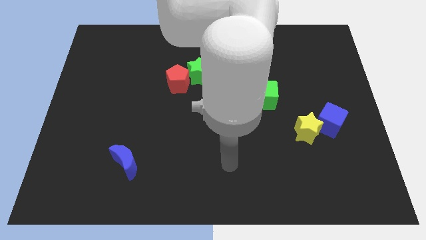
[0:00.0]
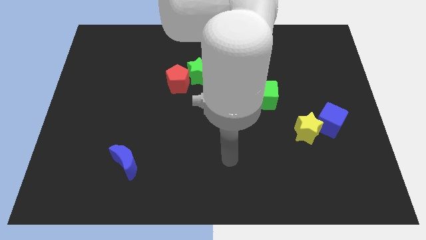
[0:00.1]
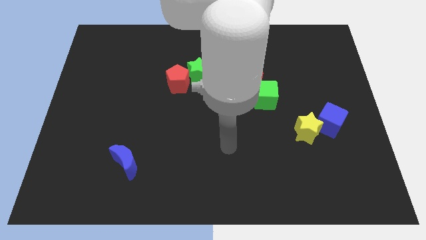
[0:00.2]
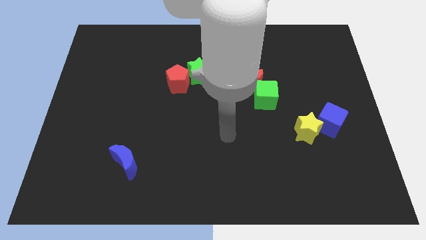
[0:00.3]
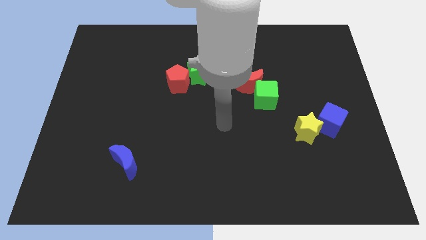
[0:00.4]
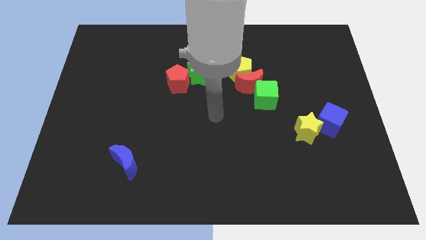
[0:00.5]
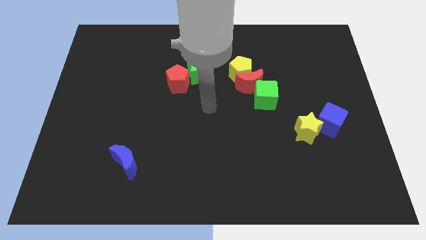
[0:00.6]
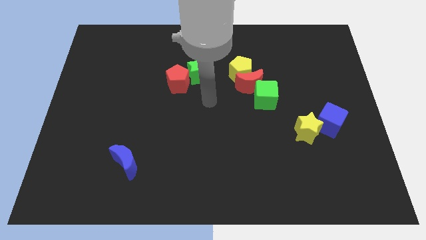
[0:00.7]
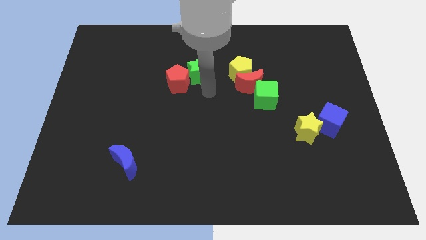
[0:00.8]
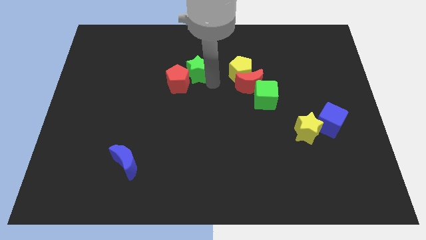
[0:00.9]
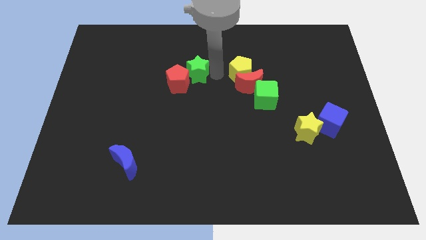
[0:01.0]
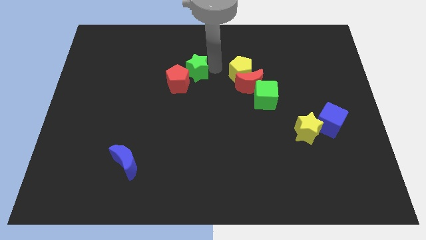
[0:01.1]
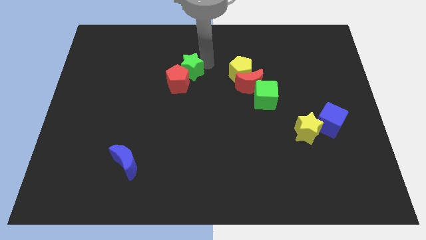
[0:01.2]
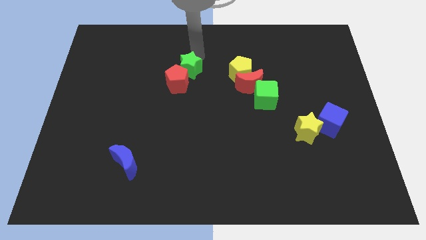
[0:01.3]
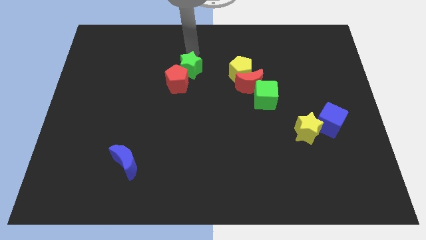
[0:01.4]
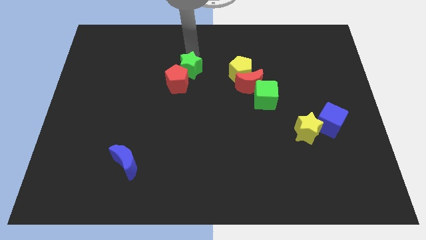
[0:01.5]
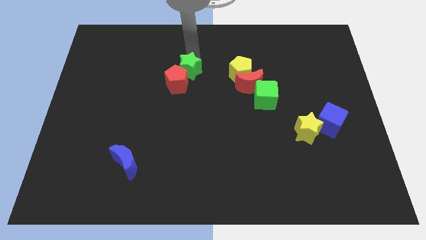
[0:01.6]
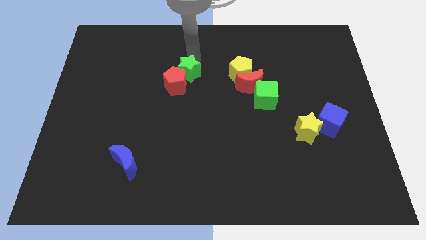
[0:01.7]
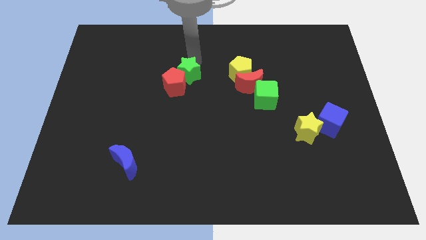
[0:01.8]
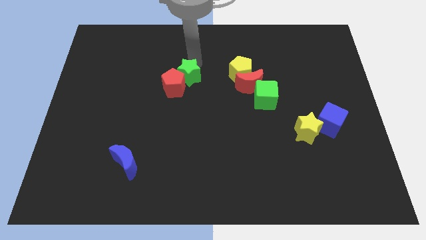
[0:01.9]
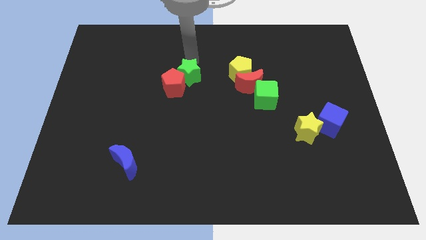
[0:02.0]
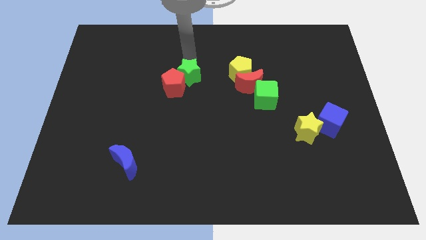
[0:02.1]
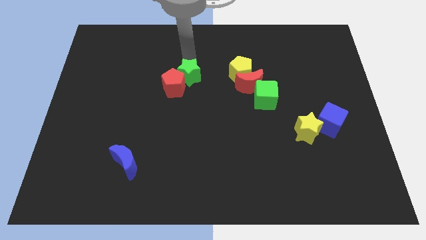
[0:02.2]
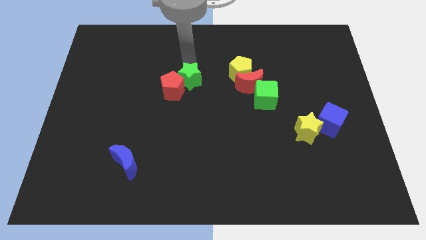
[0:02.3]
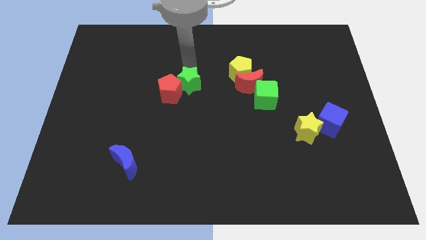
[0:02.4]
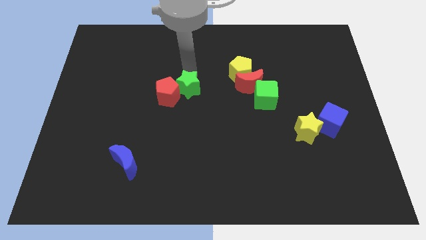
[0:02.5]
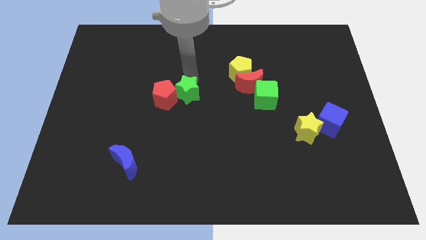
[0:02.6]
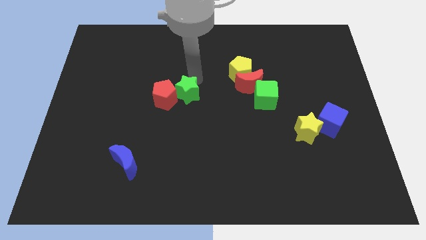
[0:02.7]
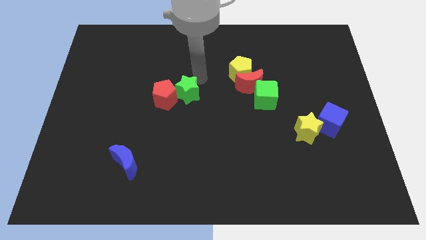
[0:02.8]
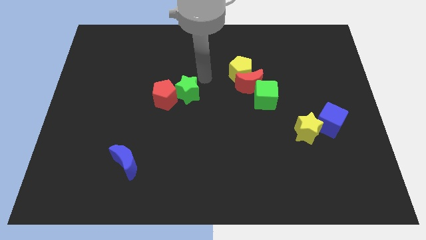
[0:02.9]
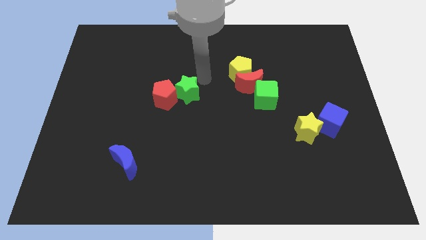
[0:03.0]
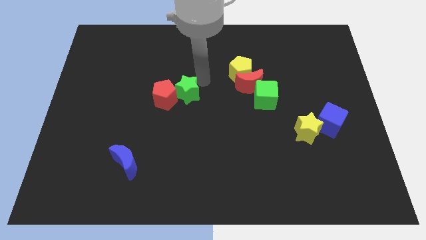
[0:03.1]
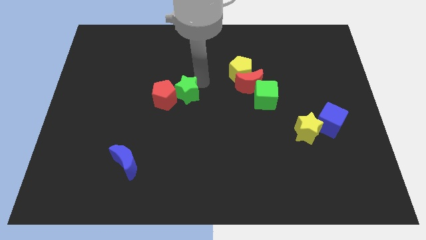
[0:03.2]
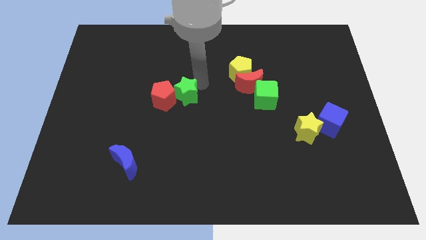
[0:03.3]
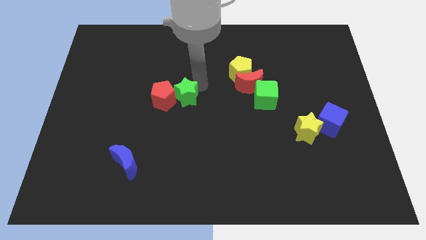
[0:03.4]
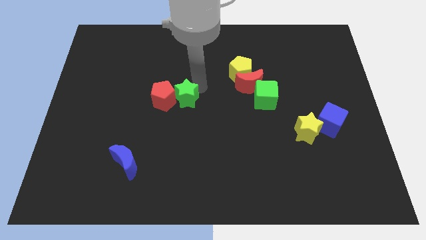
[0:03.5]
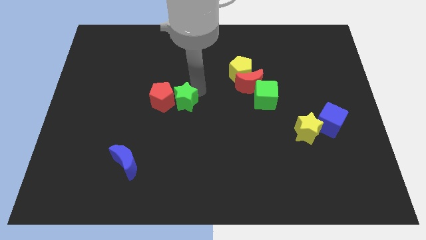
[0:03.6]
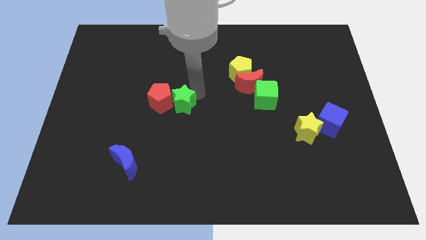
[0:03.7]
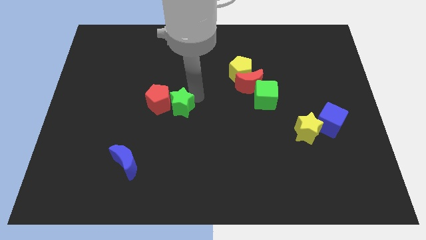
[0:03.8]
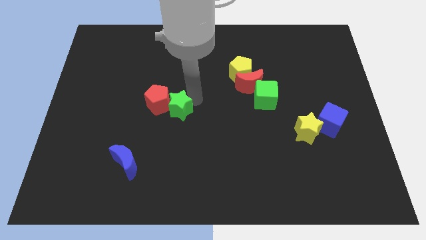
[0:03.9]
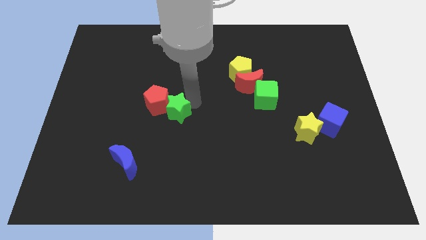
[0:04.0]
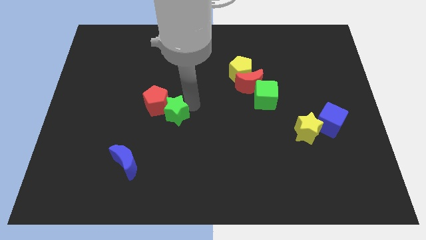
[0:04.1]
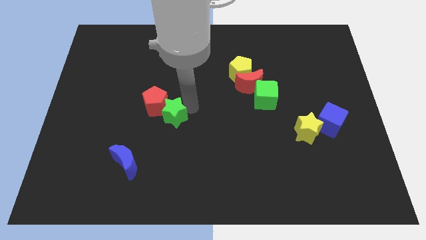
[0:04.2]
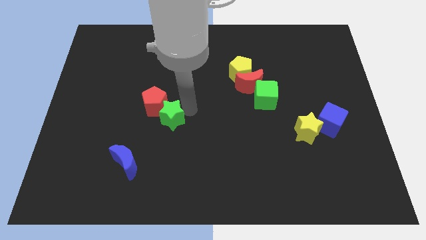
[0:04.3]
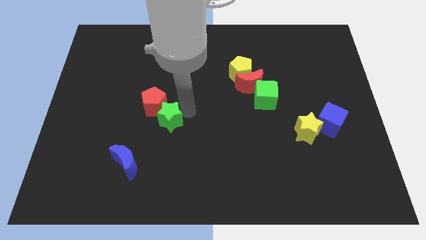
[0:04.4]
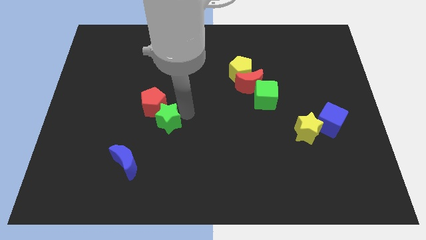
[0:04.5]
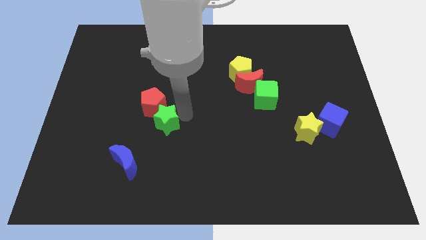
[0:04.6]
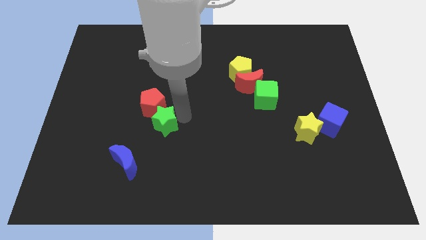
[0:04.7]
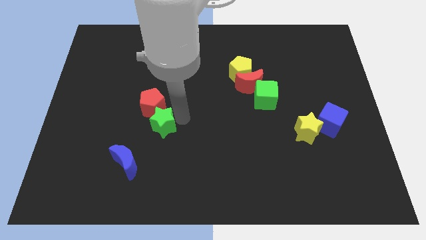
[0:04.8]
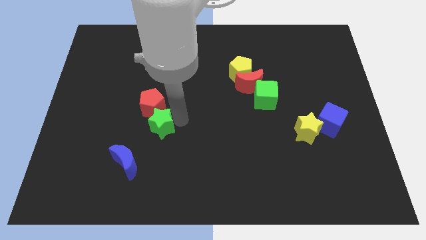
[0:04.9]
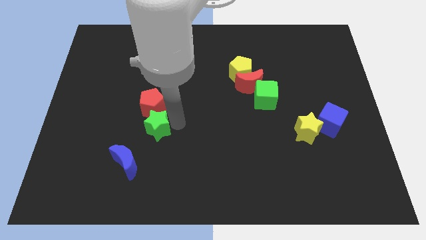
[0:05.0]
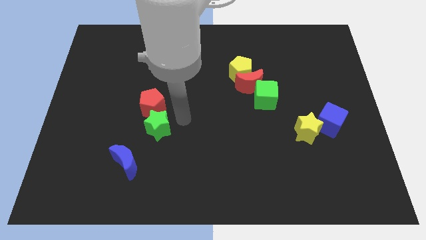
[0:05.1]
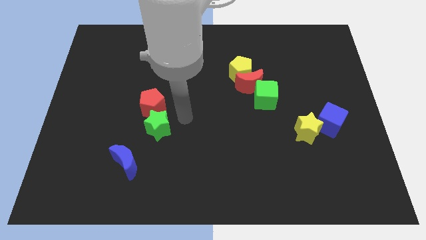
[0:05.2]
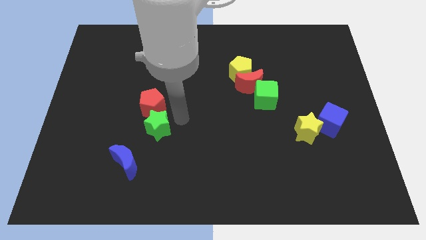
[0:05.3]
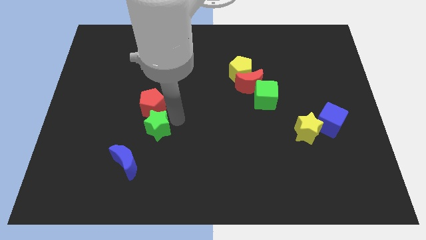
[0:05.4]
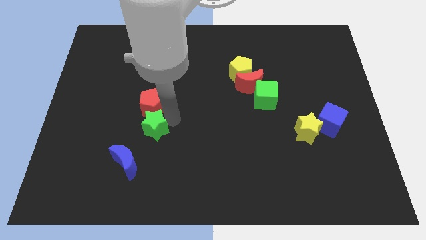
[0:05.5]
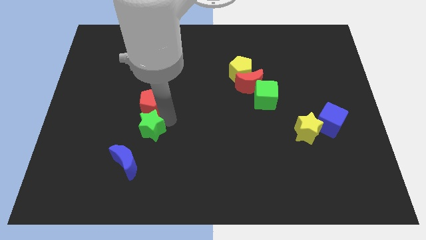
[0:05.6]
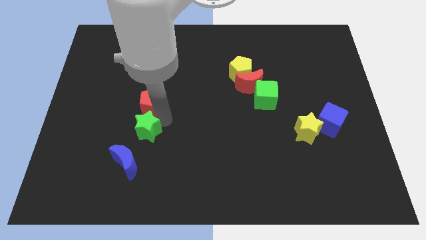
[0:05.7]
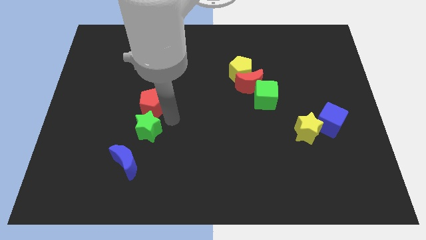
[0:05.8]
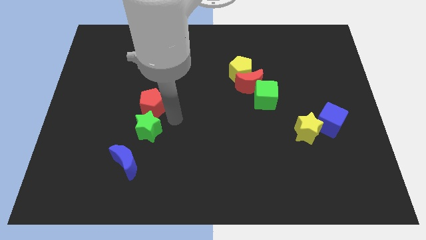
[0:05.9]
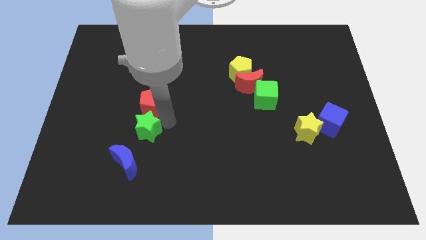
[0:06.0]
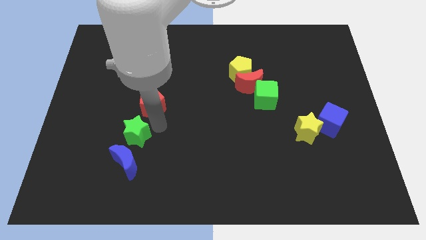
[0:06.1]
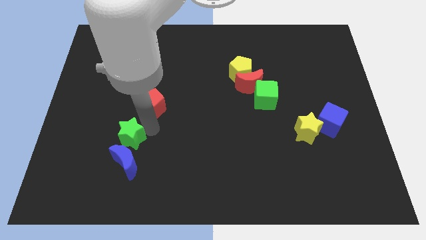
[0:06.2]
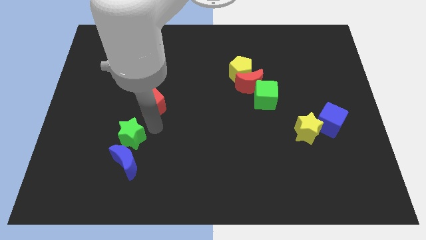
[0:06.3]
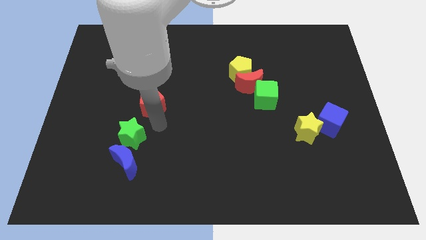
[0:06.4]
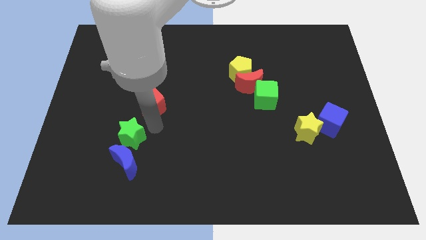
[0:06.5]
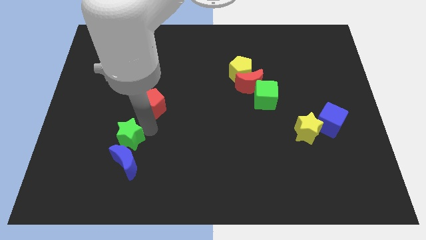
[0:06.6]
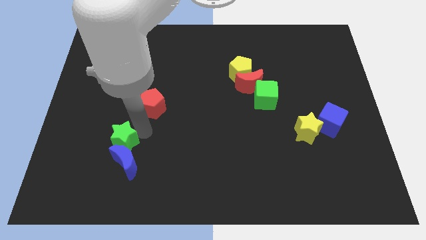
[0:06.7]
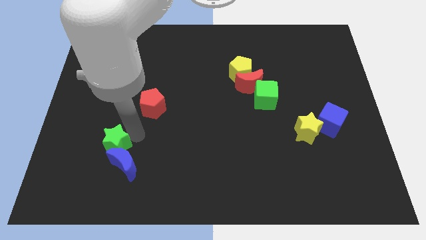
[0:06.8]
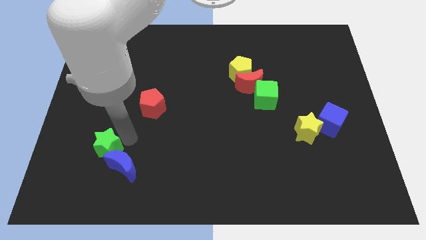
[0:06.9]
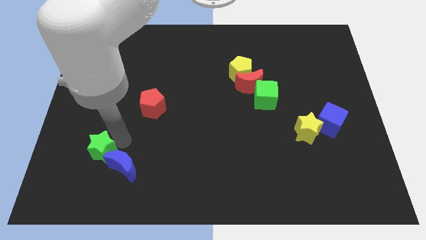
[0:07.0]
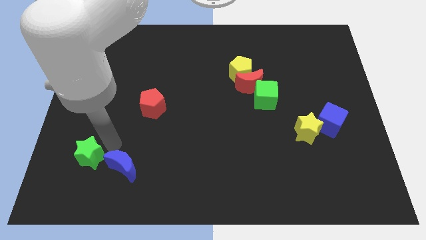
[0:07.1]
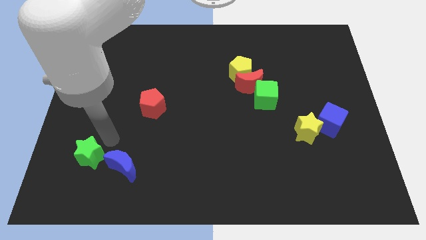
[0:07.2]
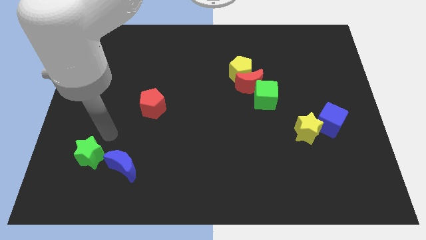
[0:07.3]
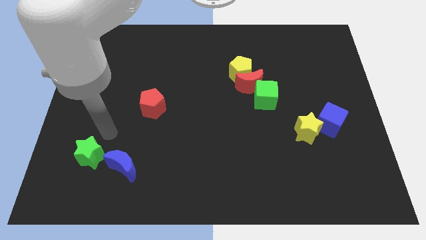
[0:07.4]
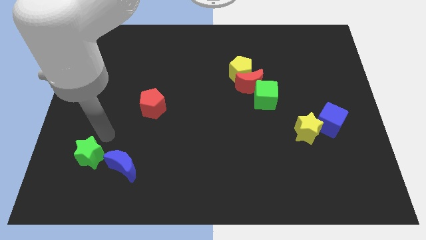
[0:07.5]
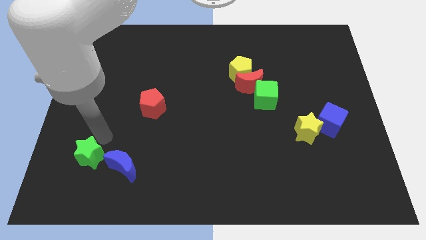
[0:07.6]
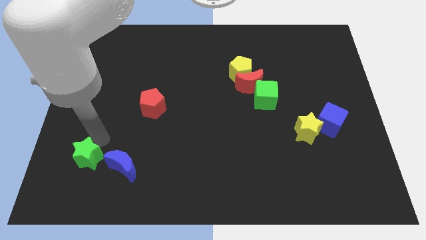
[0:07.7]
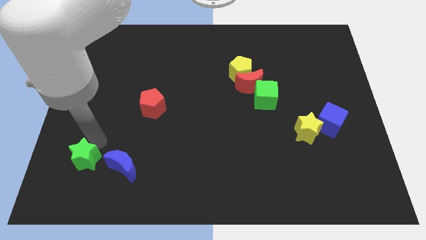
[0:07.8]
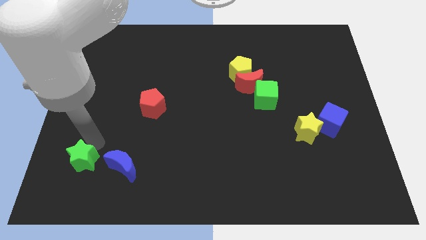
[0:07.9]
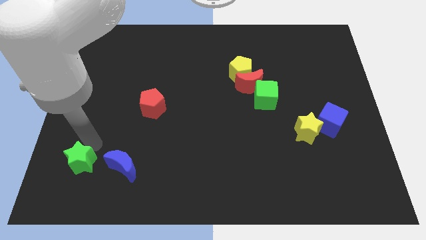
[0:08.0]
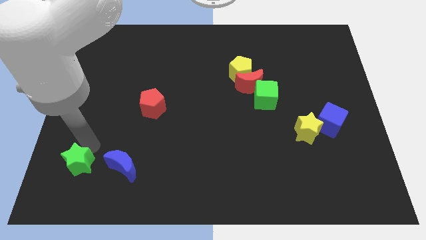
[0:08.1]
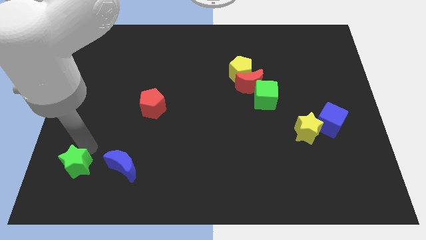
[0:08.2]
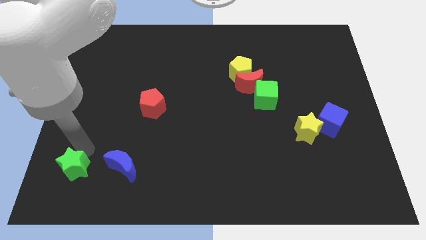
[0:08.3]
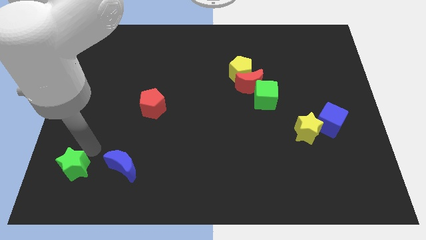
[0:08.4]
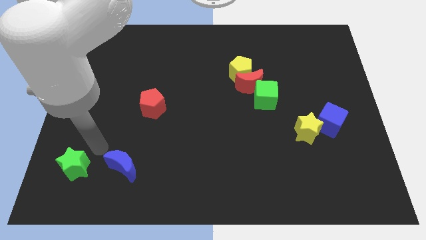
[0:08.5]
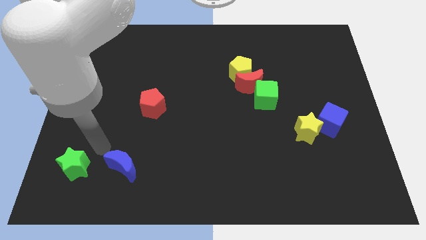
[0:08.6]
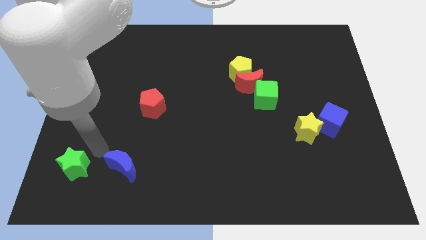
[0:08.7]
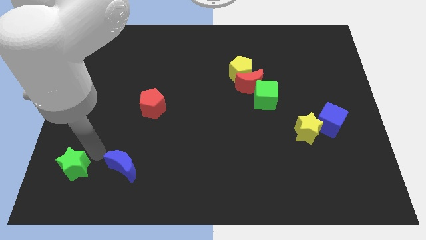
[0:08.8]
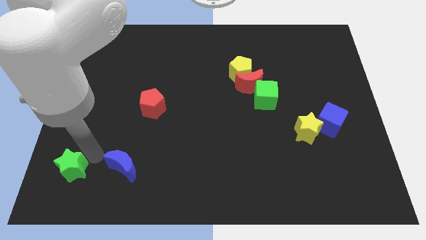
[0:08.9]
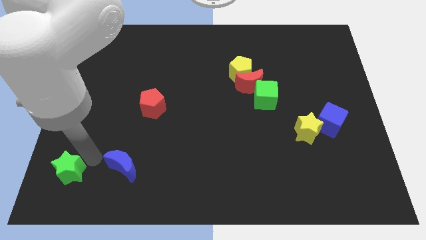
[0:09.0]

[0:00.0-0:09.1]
put the green star to the bottom left
